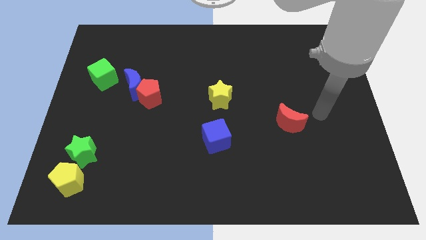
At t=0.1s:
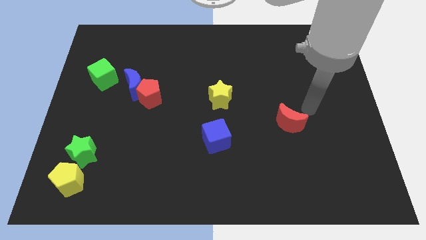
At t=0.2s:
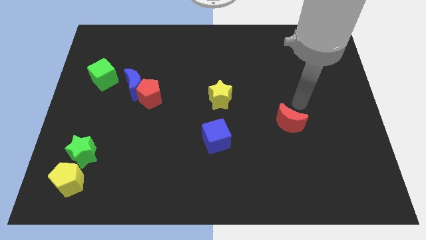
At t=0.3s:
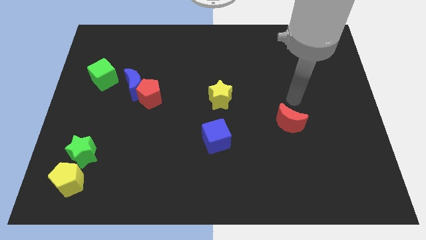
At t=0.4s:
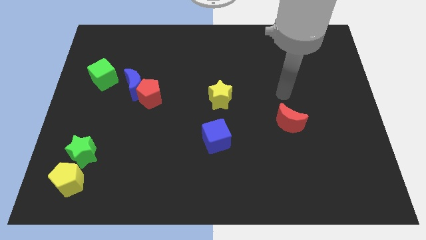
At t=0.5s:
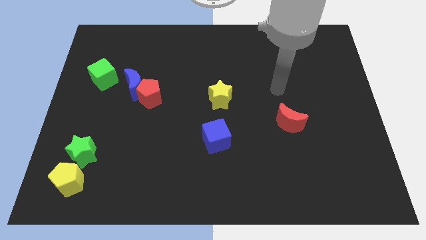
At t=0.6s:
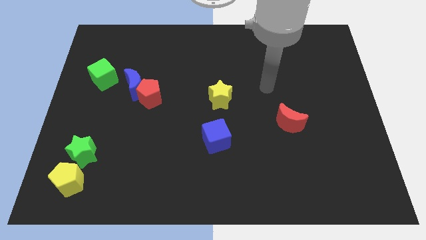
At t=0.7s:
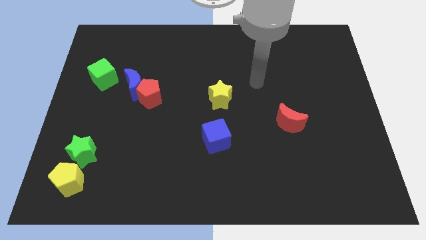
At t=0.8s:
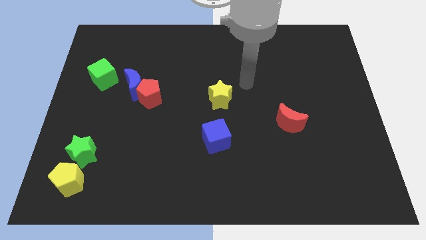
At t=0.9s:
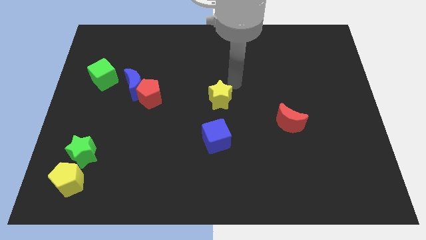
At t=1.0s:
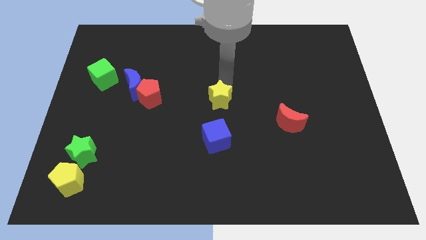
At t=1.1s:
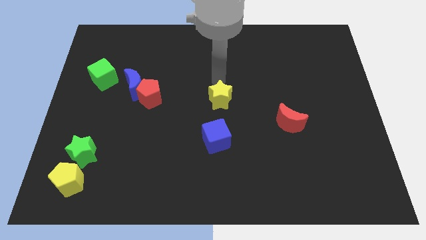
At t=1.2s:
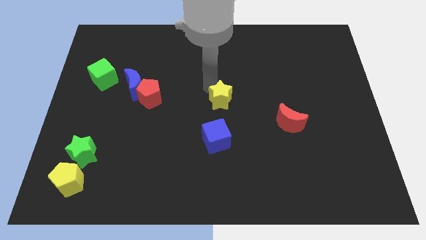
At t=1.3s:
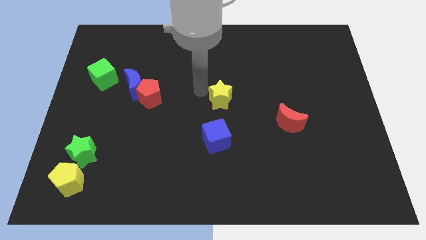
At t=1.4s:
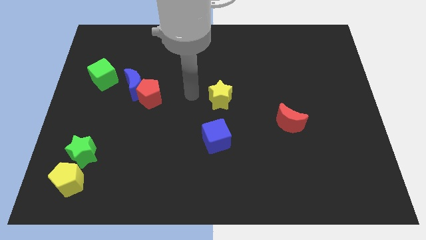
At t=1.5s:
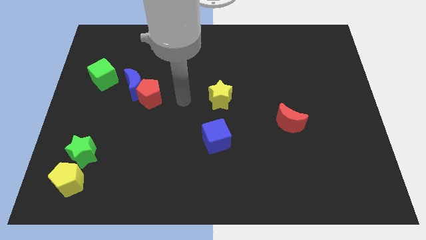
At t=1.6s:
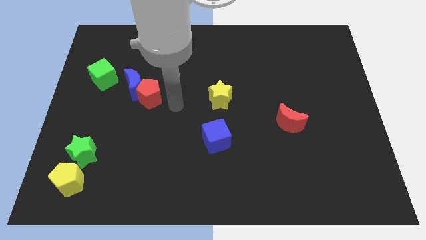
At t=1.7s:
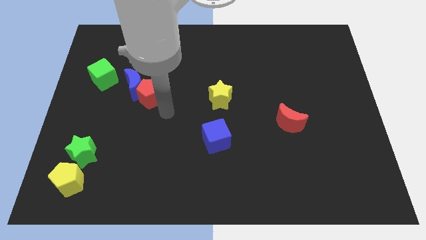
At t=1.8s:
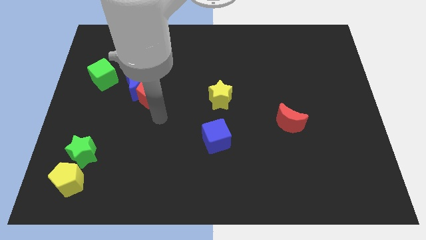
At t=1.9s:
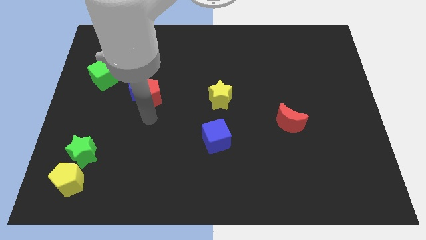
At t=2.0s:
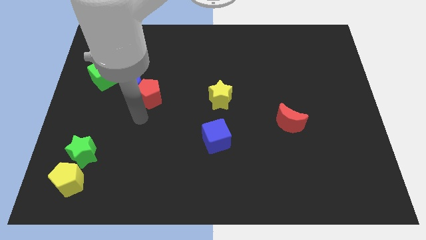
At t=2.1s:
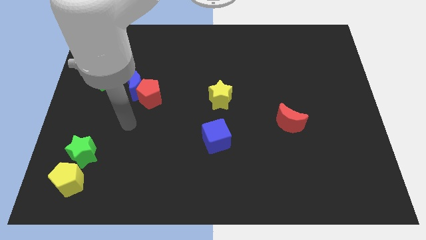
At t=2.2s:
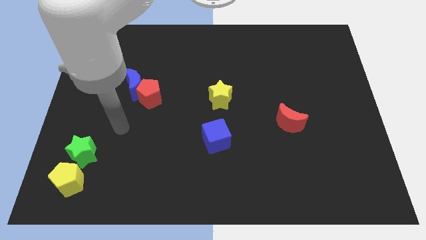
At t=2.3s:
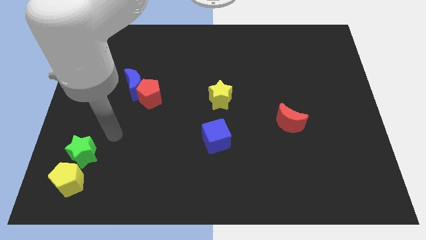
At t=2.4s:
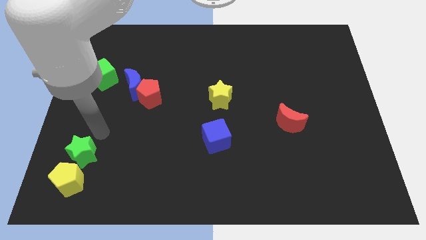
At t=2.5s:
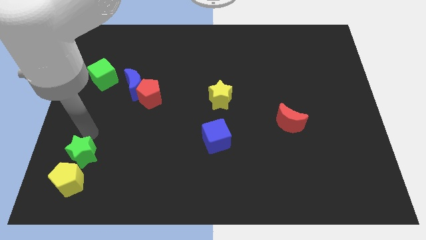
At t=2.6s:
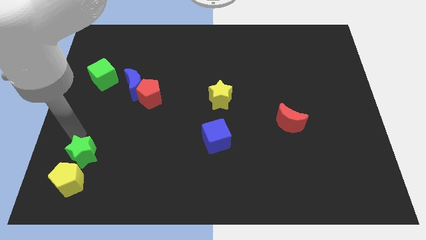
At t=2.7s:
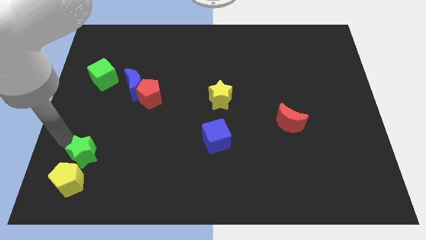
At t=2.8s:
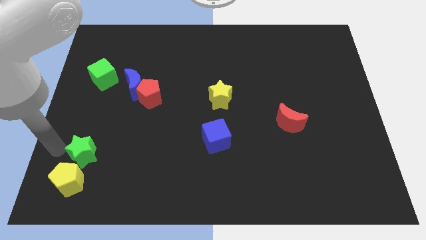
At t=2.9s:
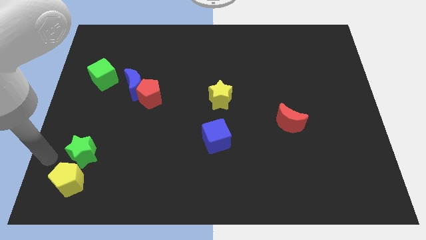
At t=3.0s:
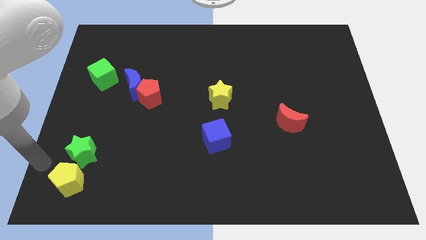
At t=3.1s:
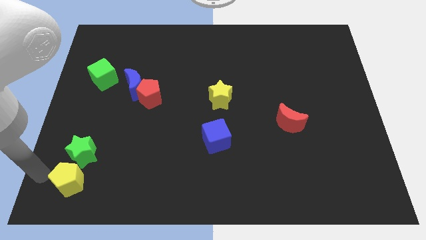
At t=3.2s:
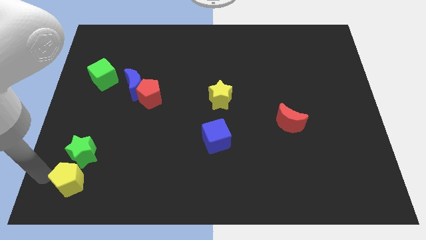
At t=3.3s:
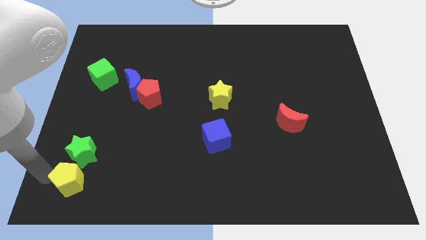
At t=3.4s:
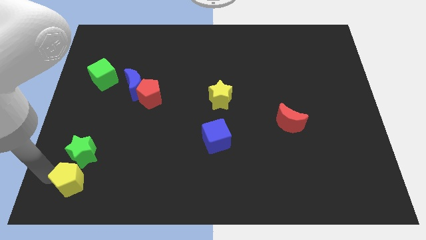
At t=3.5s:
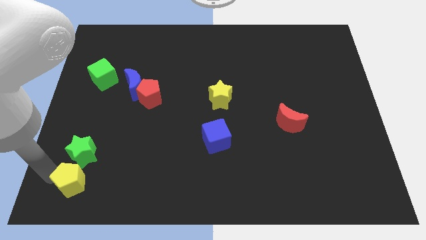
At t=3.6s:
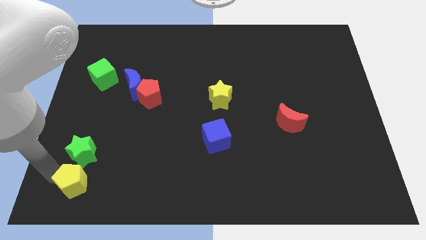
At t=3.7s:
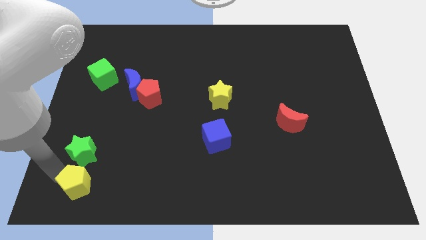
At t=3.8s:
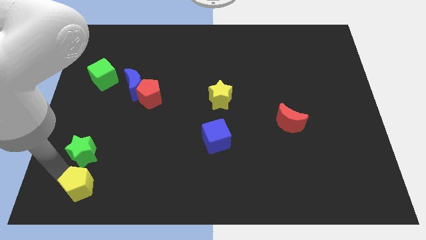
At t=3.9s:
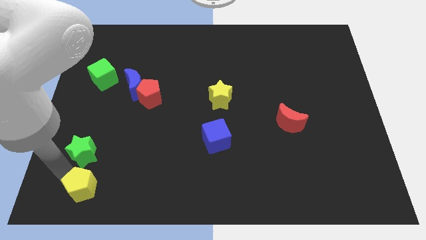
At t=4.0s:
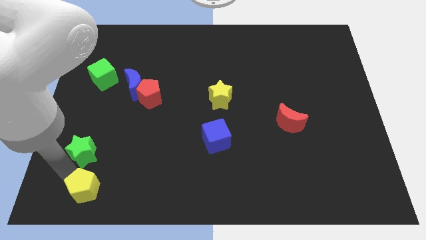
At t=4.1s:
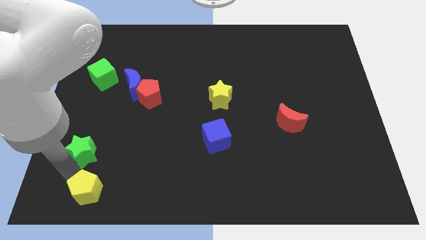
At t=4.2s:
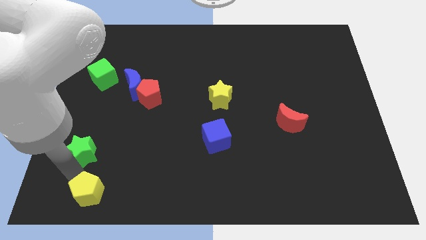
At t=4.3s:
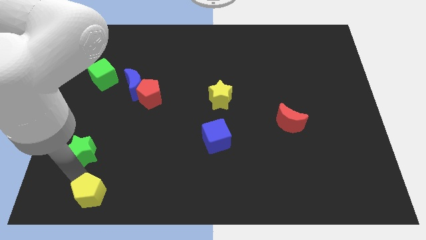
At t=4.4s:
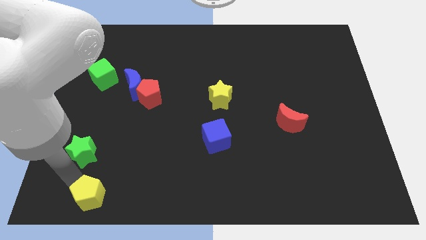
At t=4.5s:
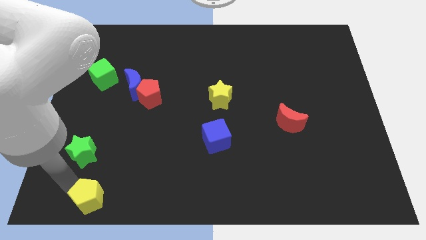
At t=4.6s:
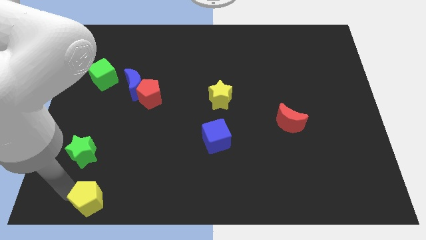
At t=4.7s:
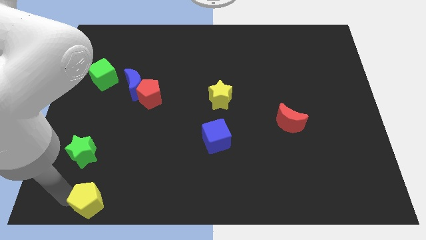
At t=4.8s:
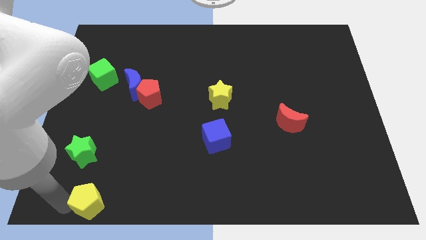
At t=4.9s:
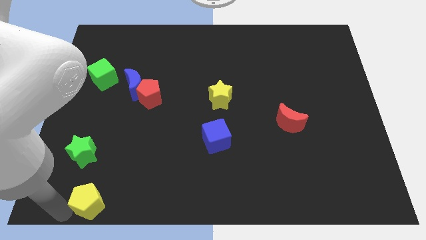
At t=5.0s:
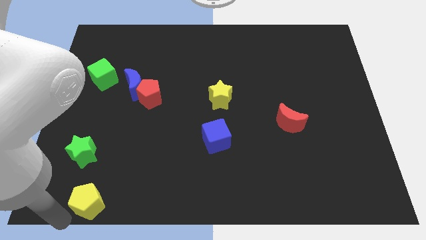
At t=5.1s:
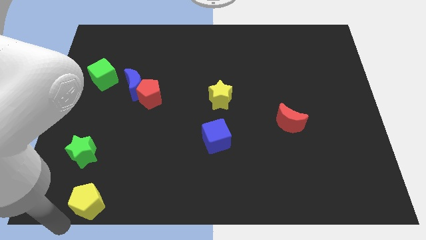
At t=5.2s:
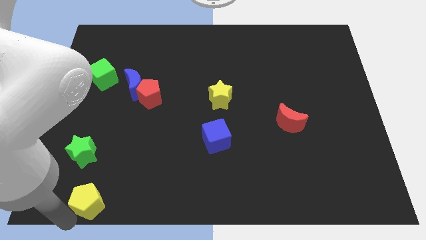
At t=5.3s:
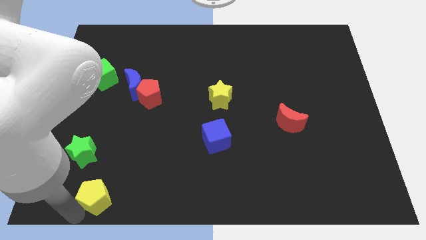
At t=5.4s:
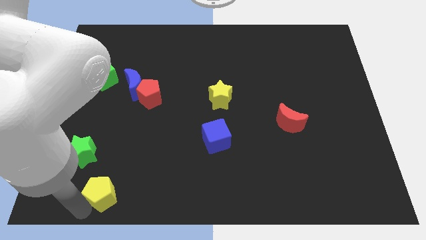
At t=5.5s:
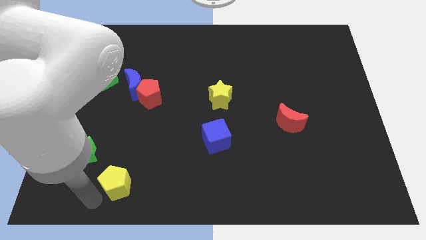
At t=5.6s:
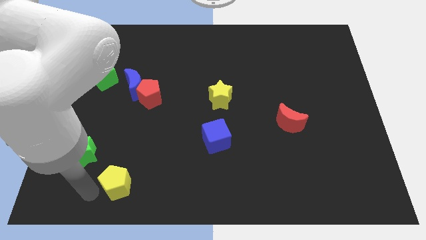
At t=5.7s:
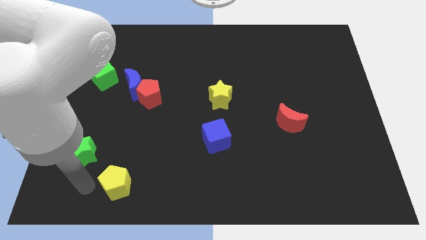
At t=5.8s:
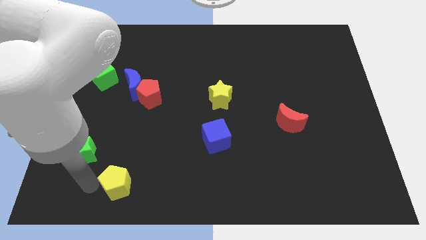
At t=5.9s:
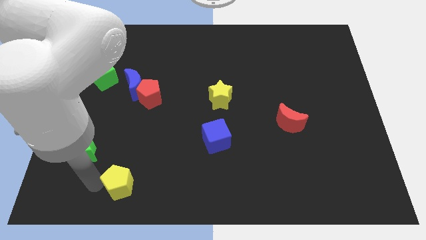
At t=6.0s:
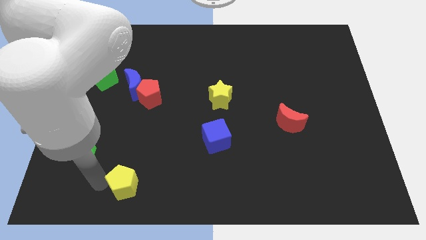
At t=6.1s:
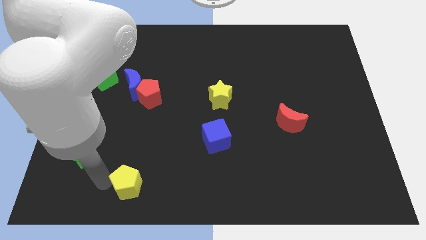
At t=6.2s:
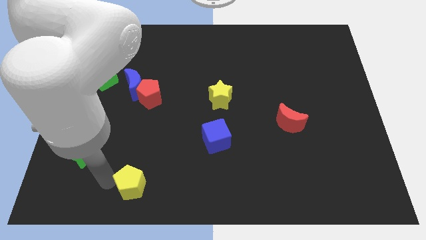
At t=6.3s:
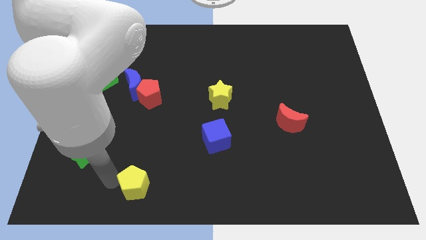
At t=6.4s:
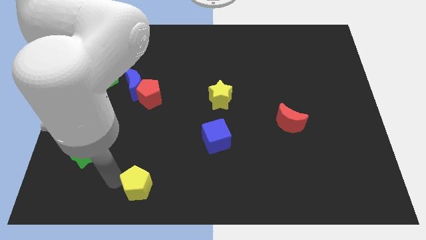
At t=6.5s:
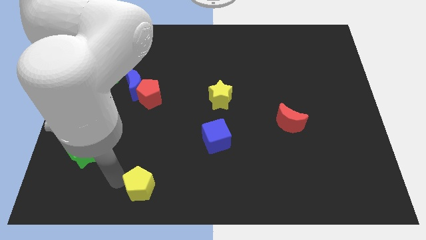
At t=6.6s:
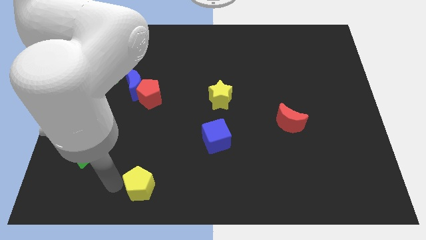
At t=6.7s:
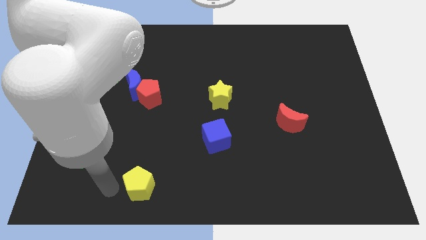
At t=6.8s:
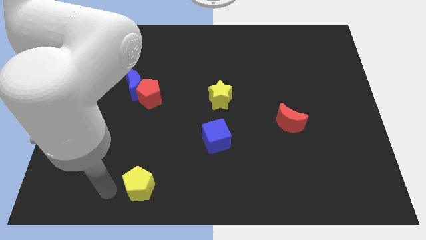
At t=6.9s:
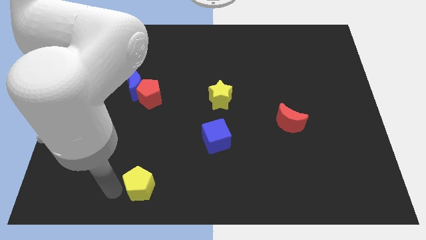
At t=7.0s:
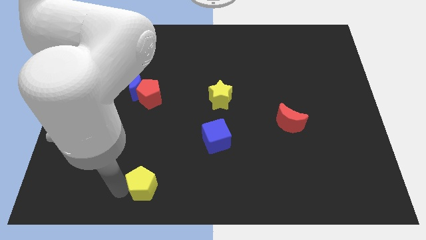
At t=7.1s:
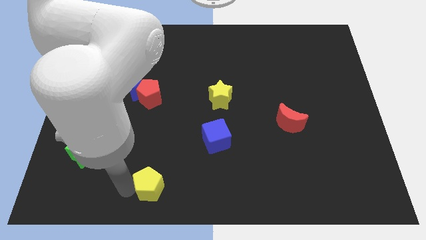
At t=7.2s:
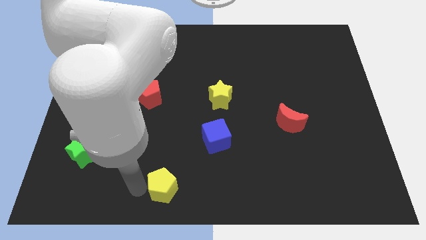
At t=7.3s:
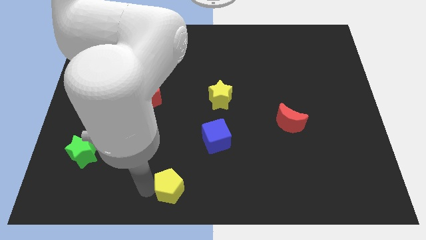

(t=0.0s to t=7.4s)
slide the yellow pentagon to the right

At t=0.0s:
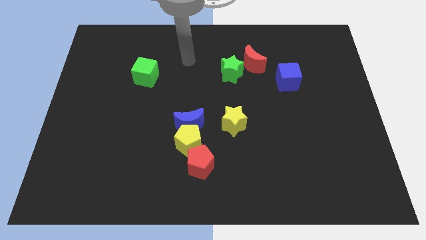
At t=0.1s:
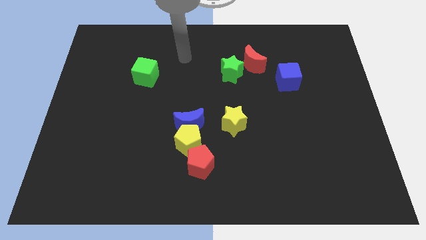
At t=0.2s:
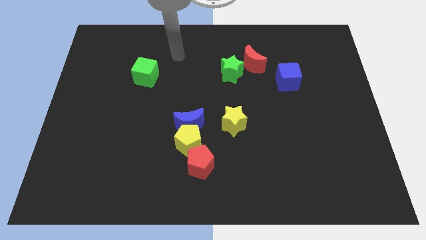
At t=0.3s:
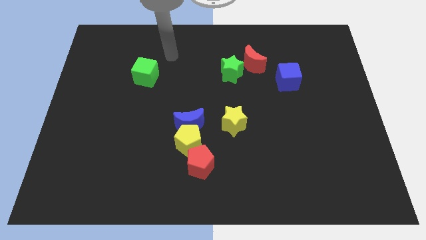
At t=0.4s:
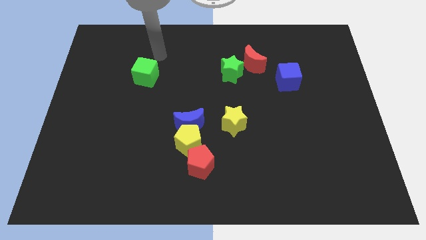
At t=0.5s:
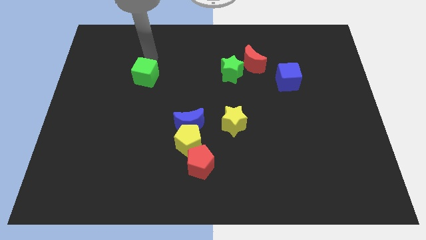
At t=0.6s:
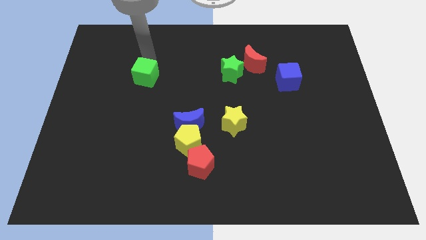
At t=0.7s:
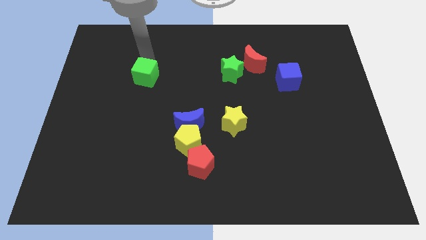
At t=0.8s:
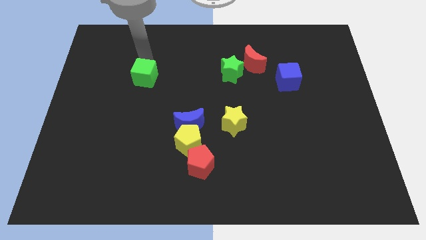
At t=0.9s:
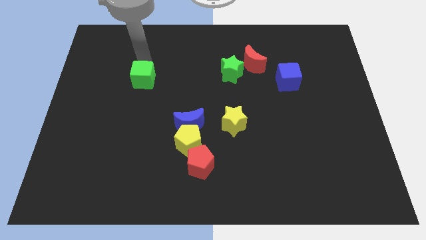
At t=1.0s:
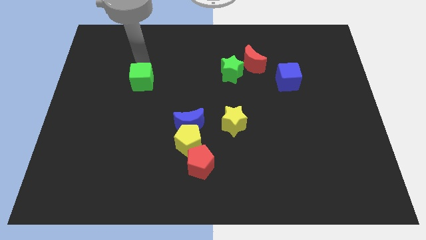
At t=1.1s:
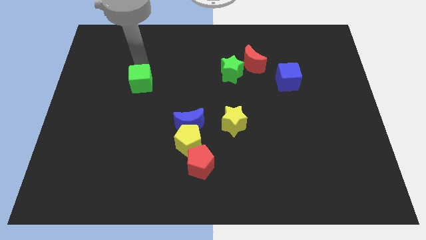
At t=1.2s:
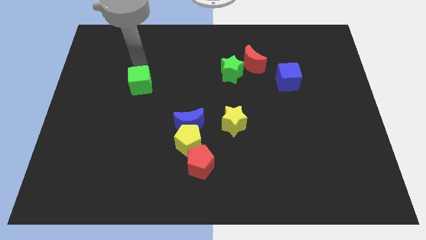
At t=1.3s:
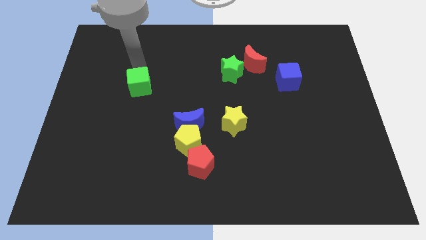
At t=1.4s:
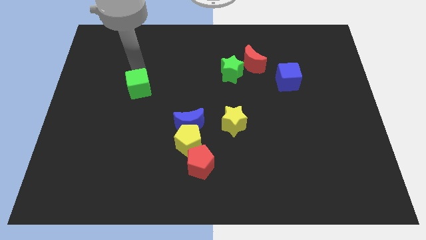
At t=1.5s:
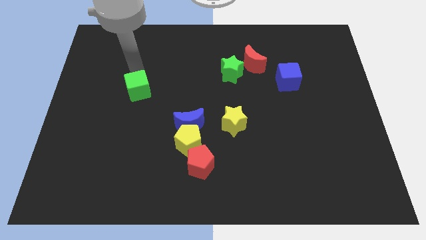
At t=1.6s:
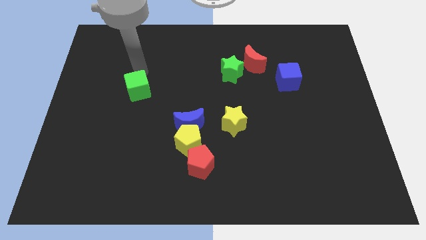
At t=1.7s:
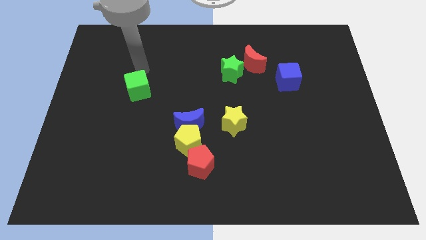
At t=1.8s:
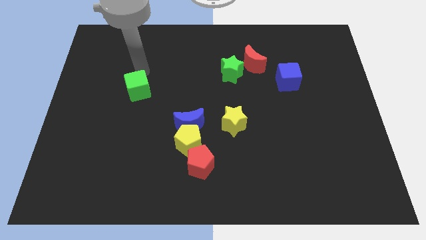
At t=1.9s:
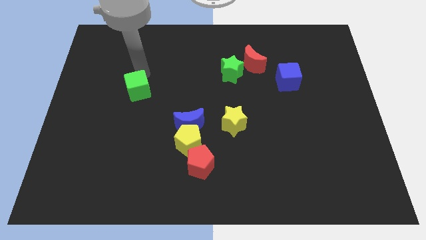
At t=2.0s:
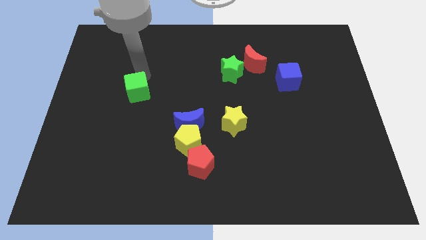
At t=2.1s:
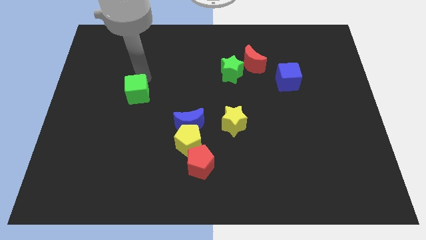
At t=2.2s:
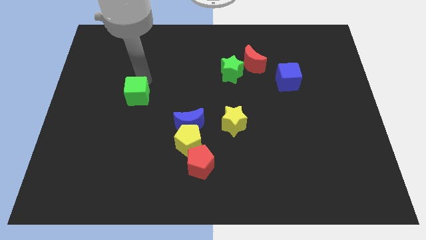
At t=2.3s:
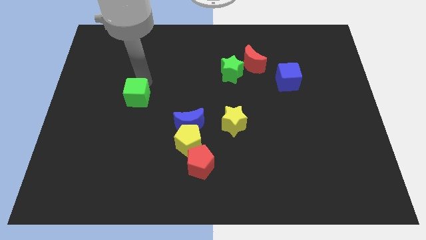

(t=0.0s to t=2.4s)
slide the green cube slightly down
